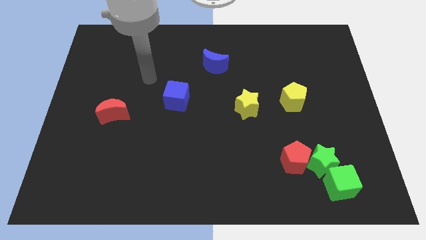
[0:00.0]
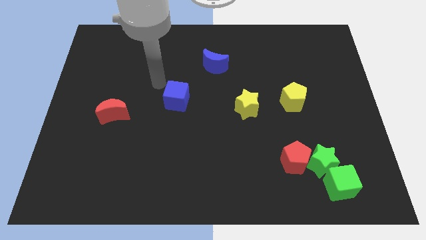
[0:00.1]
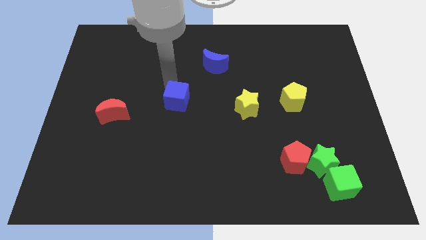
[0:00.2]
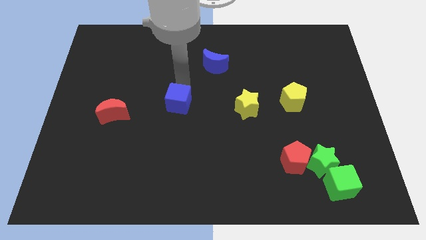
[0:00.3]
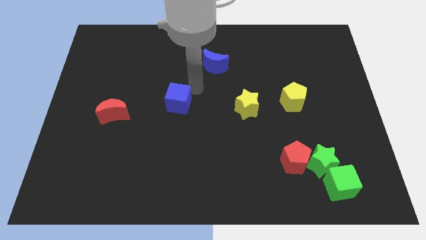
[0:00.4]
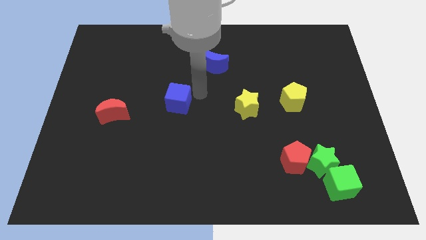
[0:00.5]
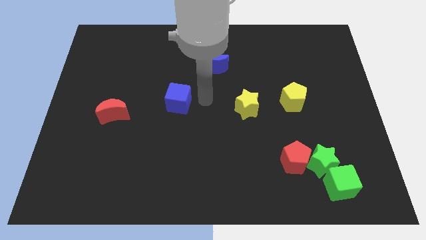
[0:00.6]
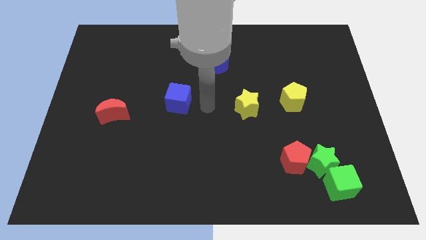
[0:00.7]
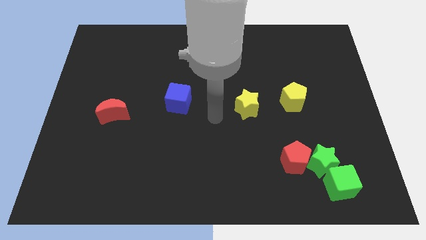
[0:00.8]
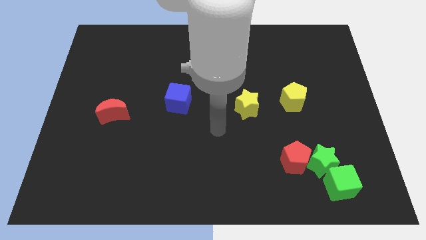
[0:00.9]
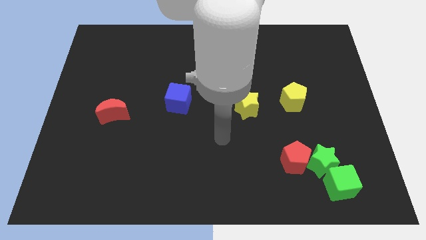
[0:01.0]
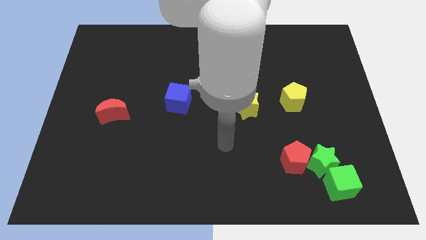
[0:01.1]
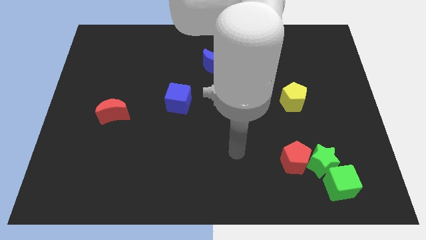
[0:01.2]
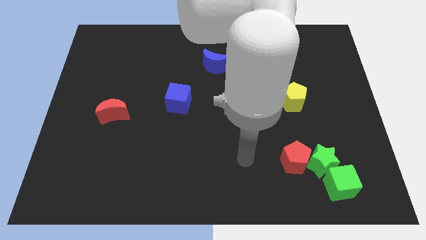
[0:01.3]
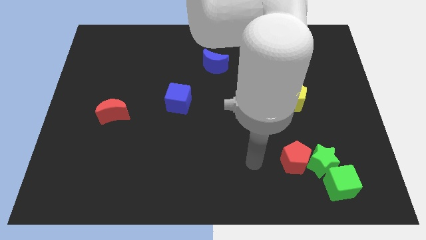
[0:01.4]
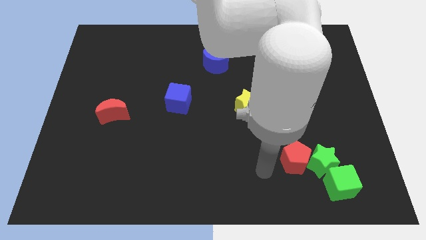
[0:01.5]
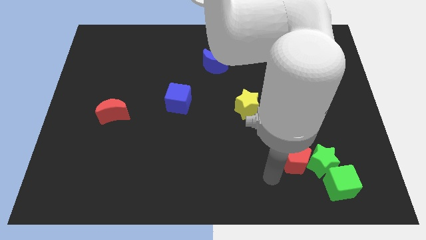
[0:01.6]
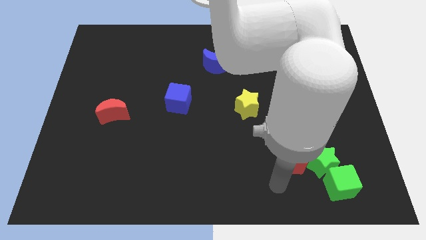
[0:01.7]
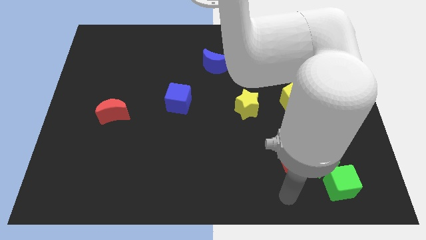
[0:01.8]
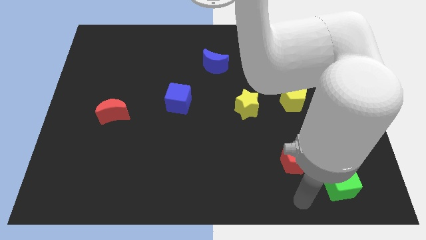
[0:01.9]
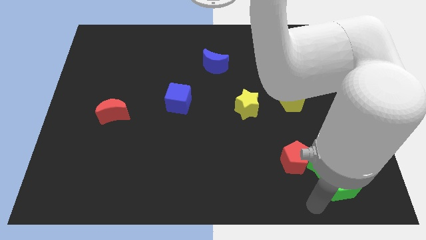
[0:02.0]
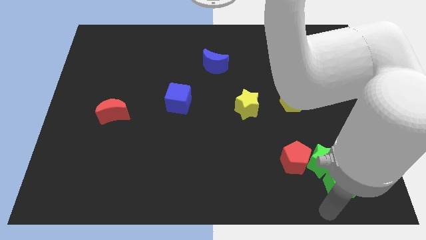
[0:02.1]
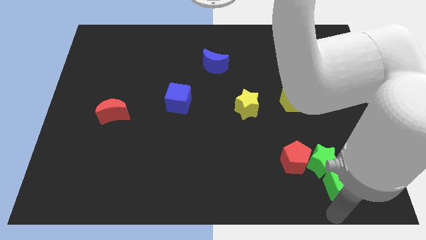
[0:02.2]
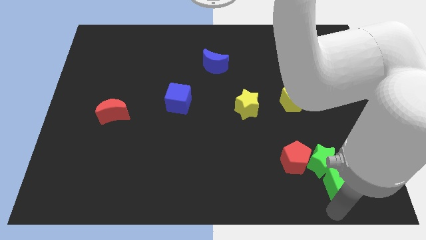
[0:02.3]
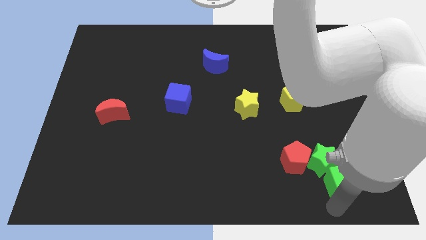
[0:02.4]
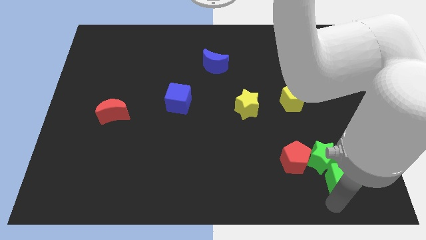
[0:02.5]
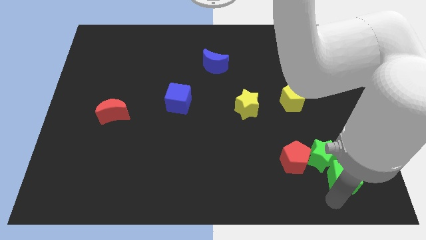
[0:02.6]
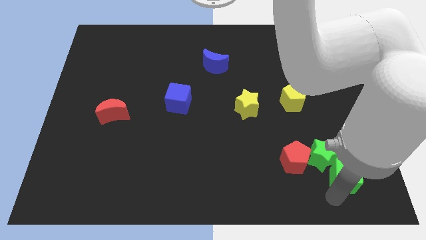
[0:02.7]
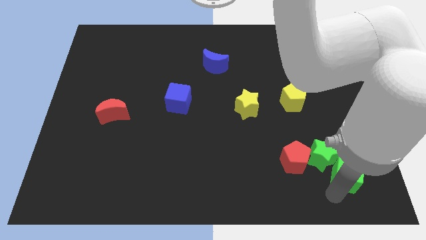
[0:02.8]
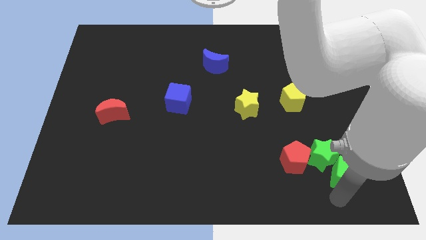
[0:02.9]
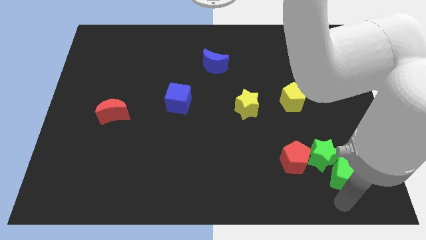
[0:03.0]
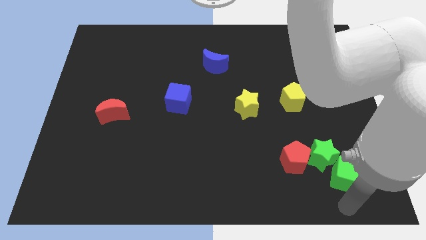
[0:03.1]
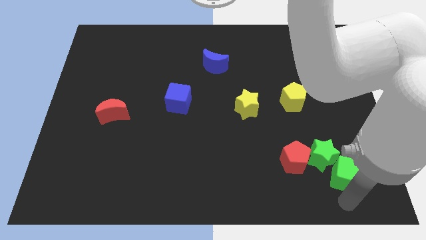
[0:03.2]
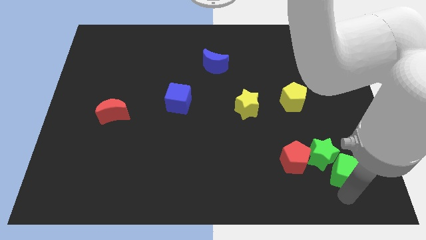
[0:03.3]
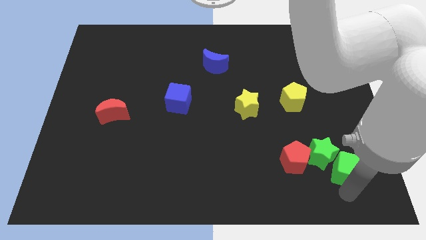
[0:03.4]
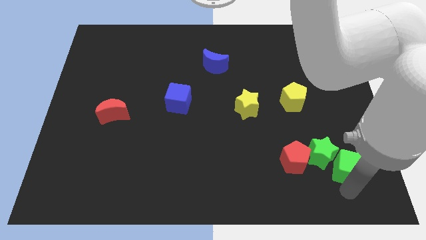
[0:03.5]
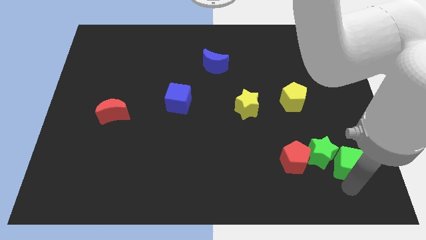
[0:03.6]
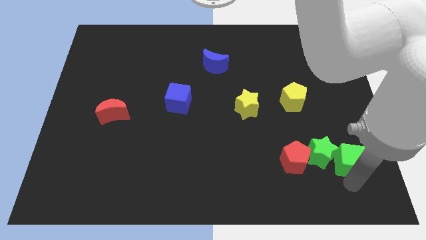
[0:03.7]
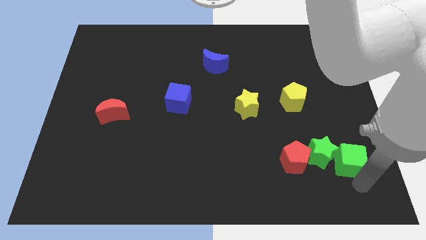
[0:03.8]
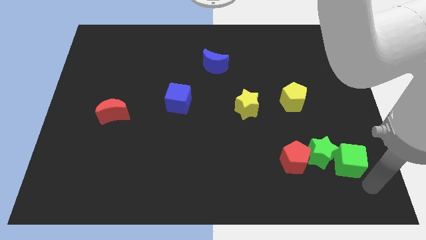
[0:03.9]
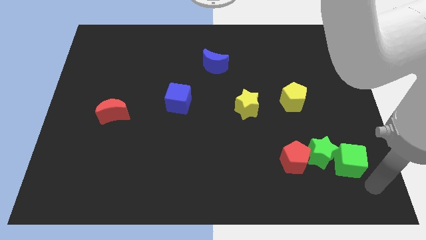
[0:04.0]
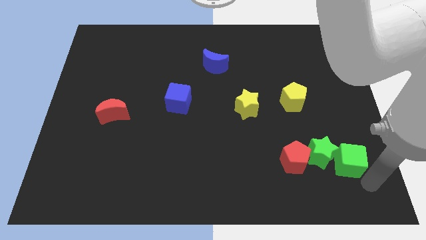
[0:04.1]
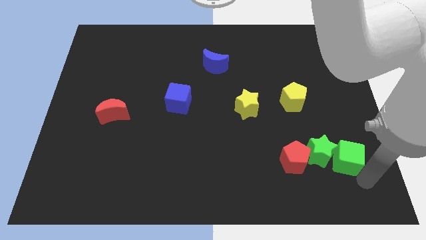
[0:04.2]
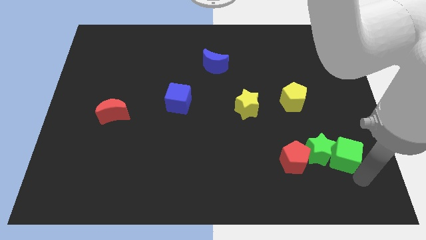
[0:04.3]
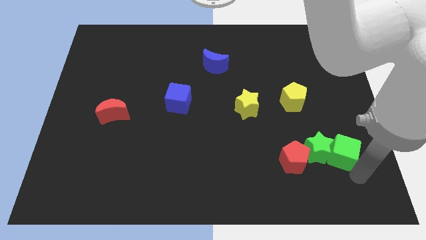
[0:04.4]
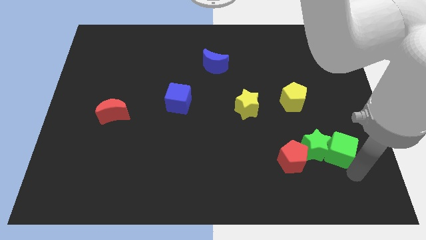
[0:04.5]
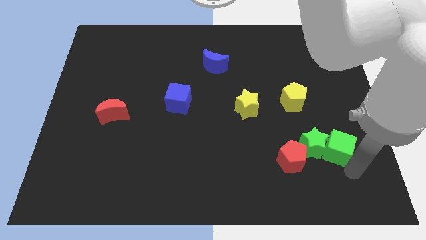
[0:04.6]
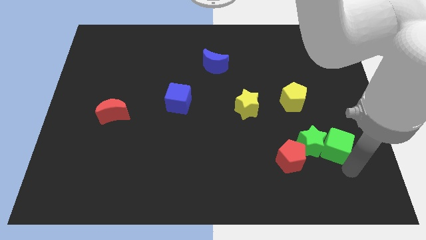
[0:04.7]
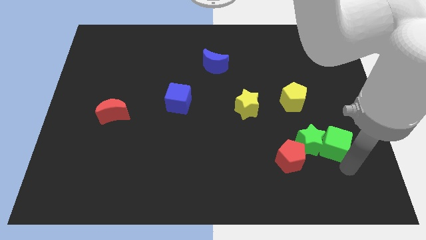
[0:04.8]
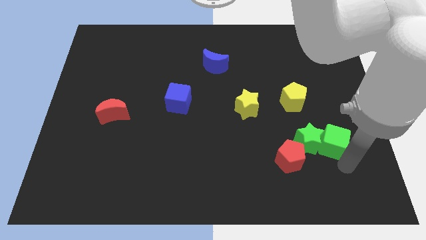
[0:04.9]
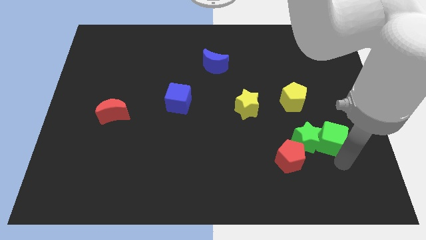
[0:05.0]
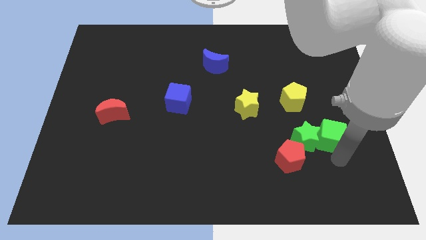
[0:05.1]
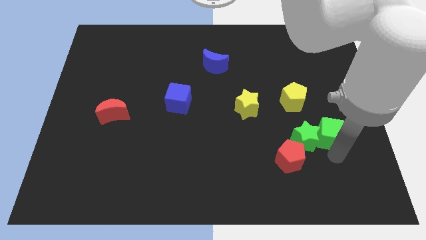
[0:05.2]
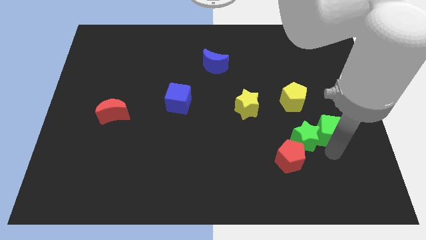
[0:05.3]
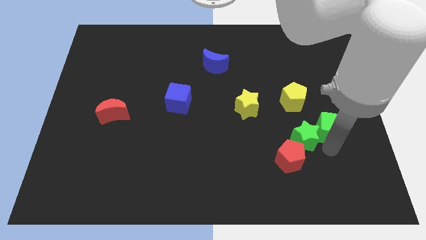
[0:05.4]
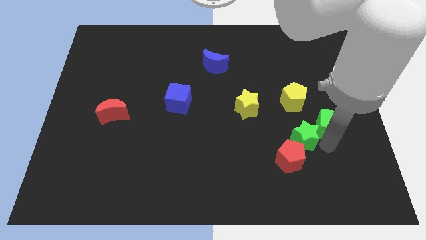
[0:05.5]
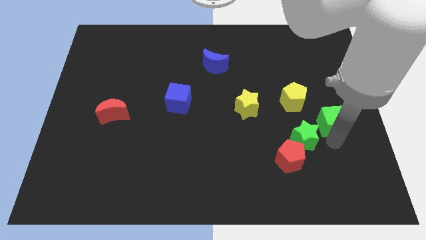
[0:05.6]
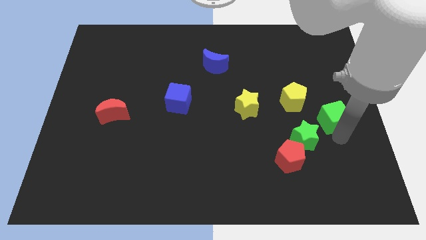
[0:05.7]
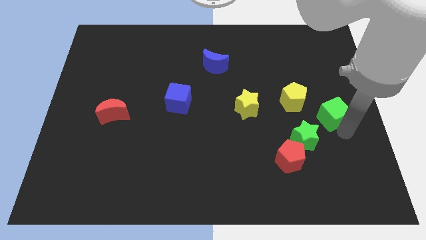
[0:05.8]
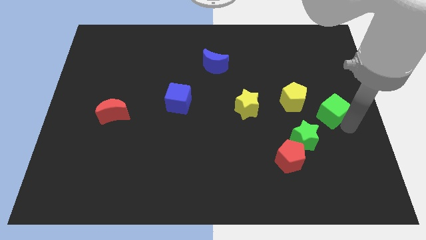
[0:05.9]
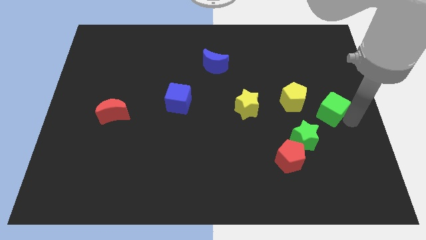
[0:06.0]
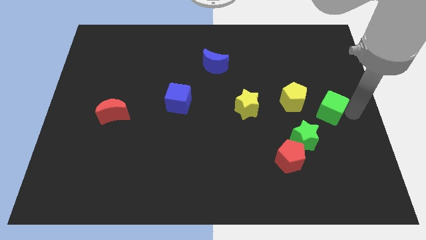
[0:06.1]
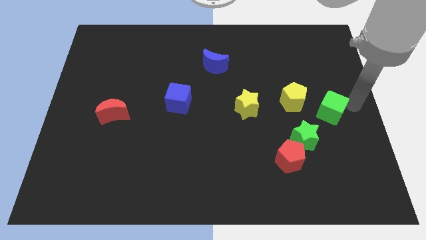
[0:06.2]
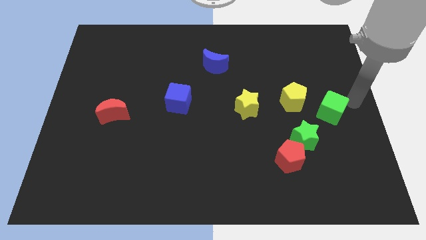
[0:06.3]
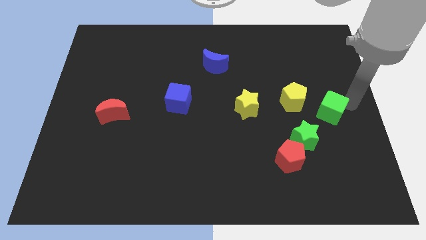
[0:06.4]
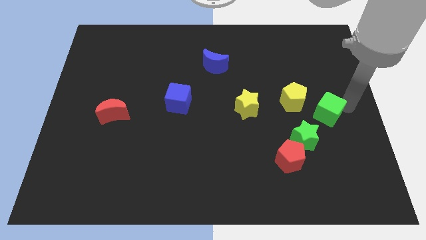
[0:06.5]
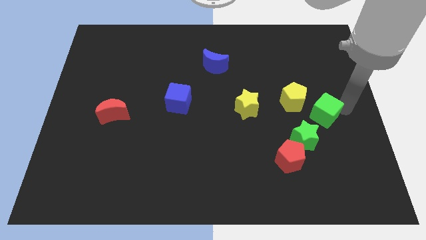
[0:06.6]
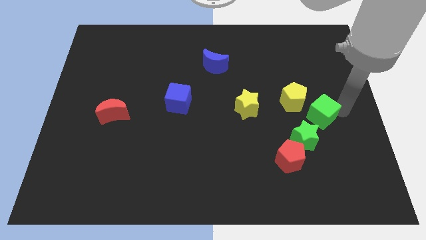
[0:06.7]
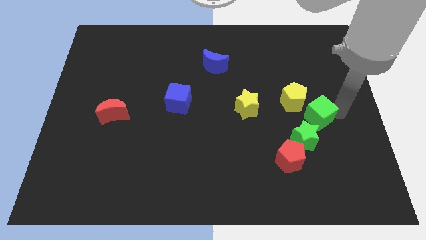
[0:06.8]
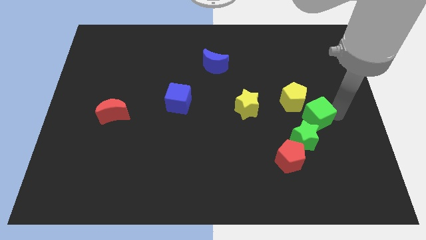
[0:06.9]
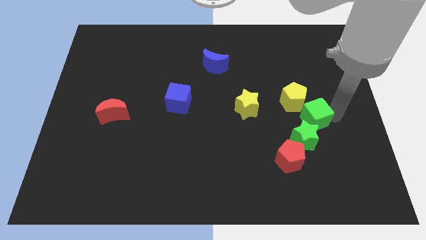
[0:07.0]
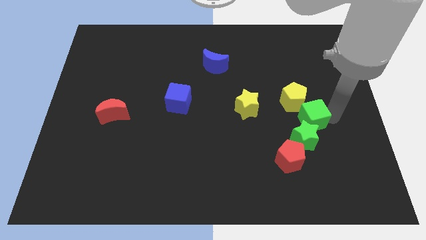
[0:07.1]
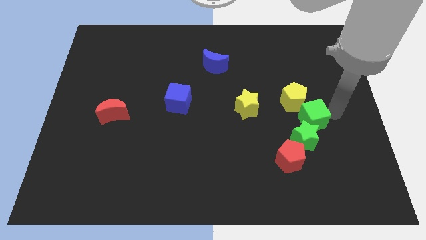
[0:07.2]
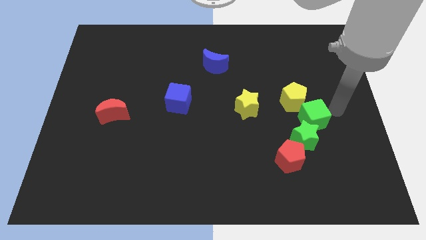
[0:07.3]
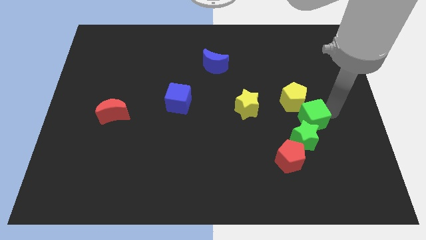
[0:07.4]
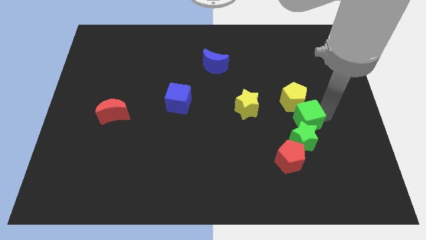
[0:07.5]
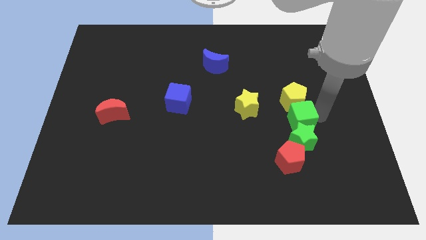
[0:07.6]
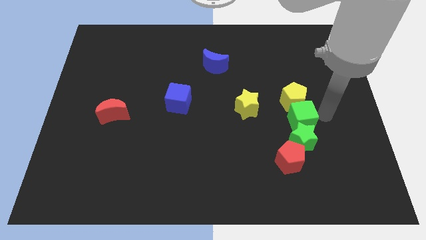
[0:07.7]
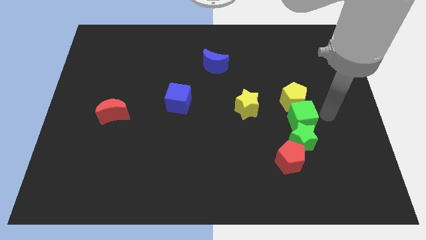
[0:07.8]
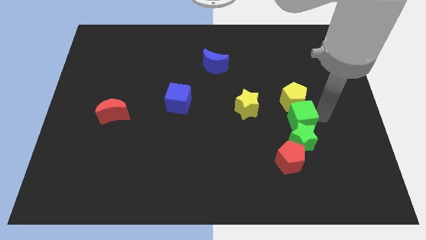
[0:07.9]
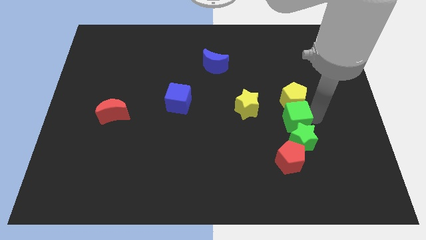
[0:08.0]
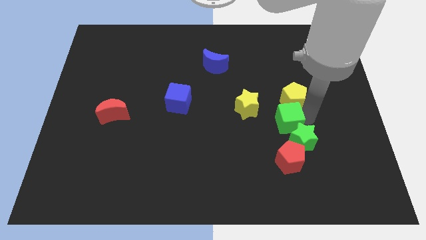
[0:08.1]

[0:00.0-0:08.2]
push the green cube to the bottom right side of the yellow star
